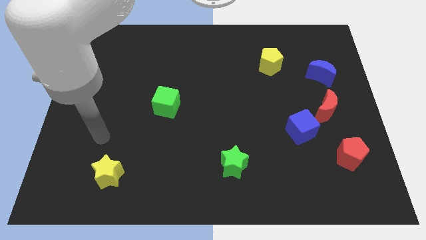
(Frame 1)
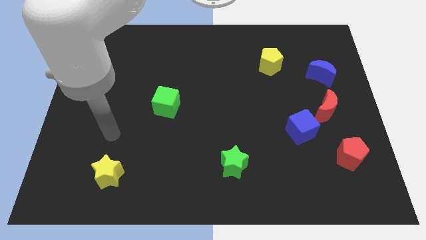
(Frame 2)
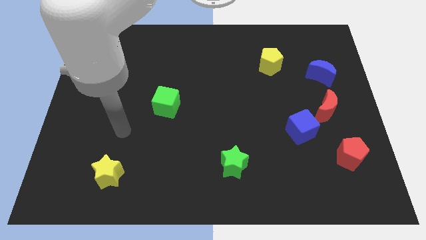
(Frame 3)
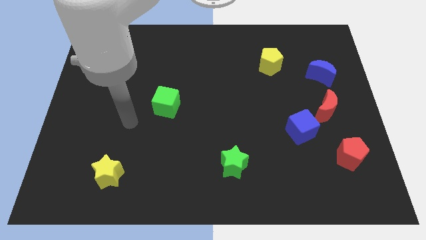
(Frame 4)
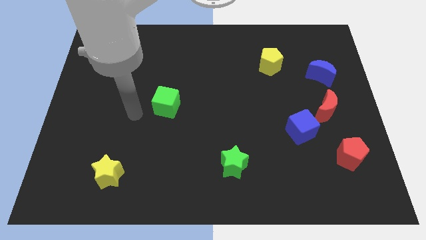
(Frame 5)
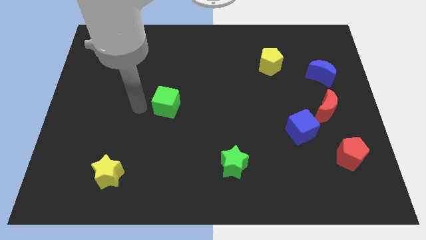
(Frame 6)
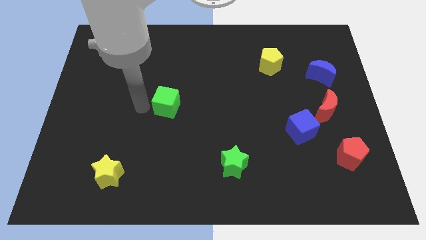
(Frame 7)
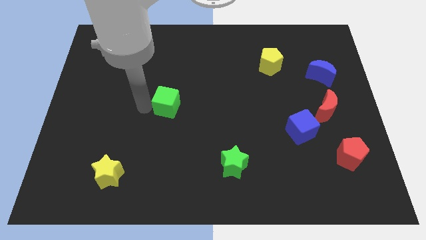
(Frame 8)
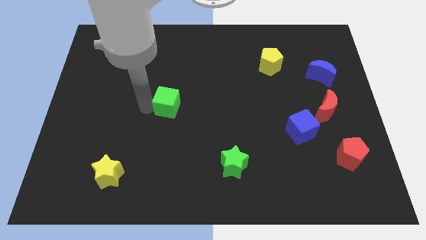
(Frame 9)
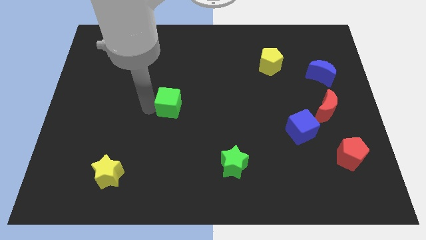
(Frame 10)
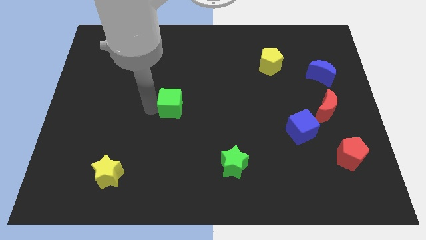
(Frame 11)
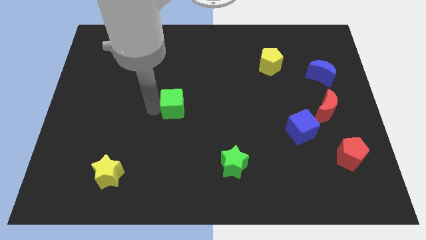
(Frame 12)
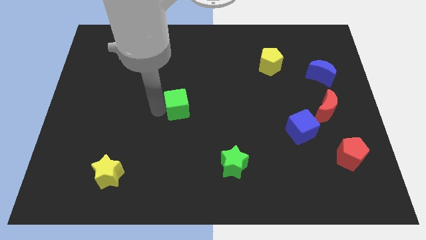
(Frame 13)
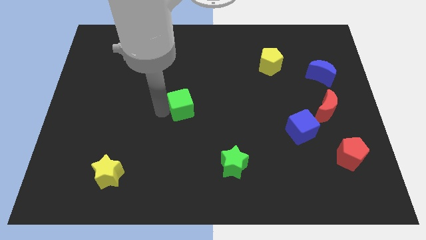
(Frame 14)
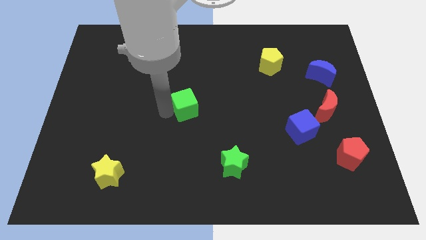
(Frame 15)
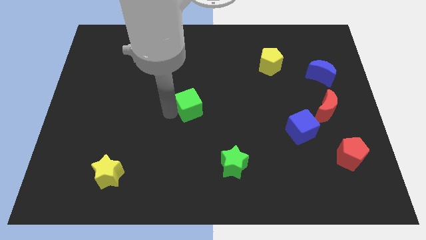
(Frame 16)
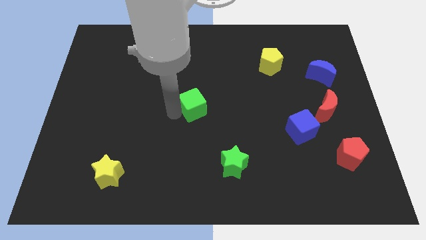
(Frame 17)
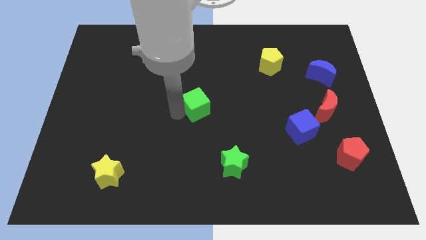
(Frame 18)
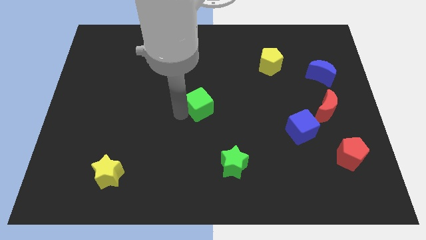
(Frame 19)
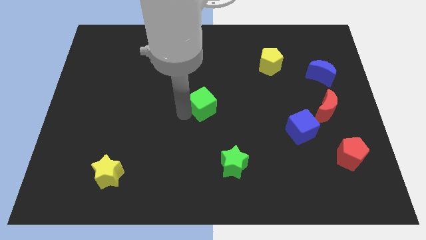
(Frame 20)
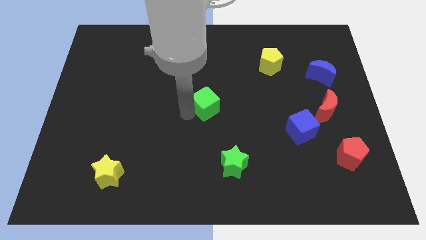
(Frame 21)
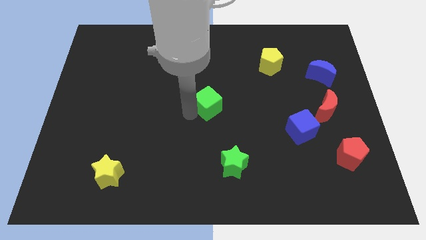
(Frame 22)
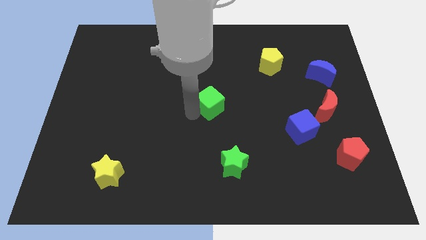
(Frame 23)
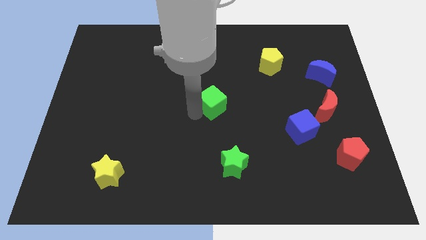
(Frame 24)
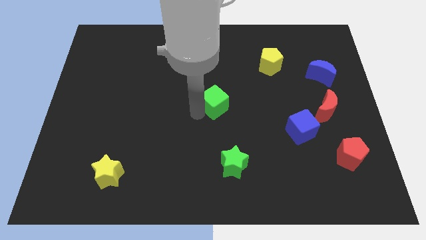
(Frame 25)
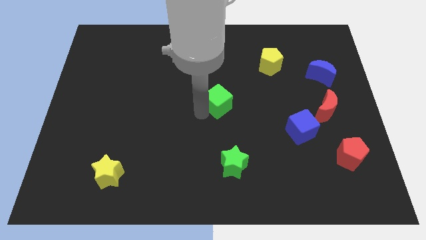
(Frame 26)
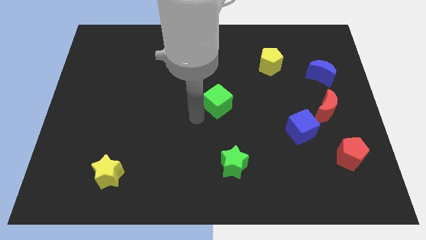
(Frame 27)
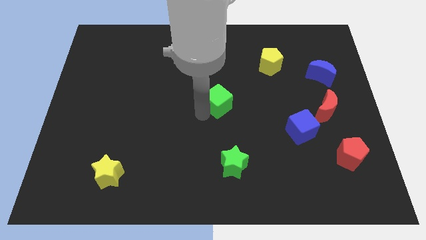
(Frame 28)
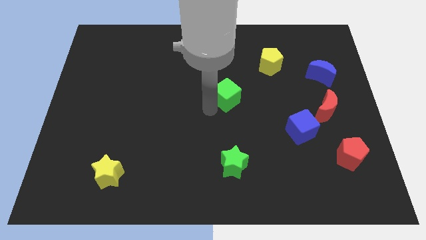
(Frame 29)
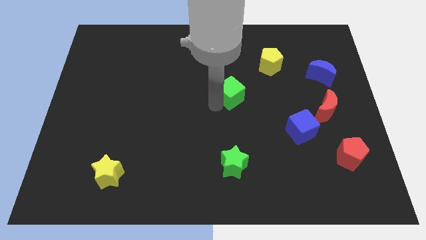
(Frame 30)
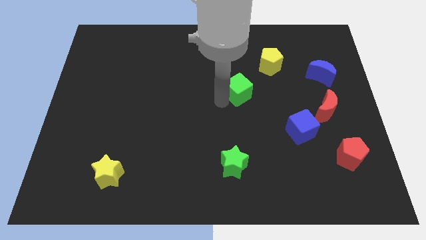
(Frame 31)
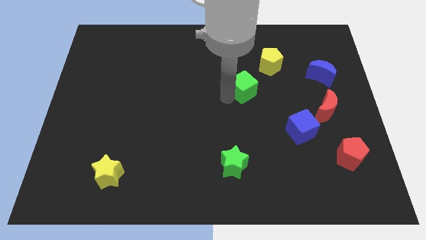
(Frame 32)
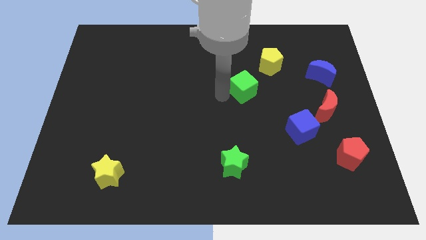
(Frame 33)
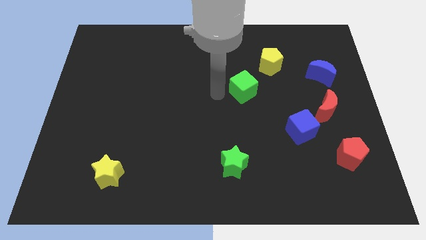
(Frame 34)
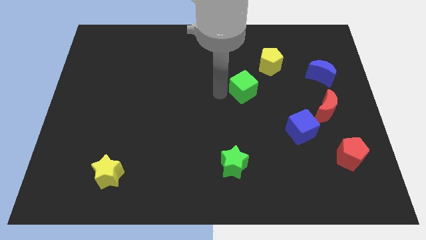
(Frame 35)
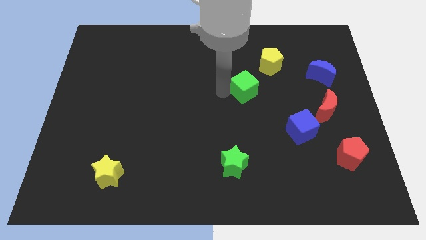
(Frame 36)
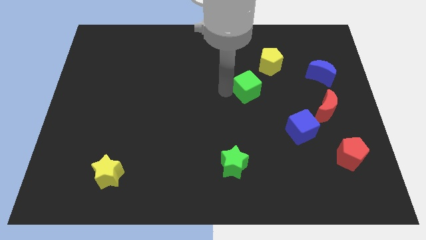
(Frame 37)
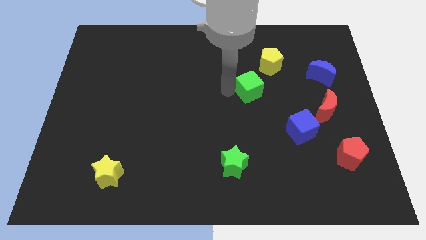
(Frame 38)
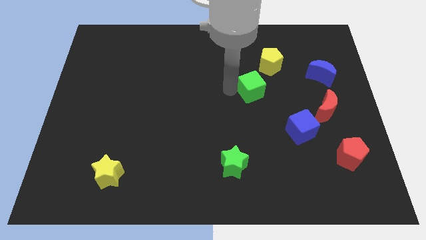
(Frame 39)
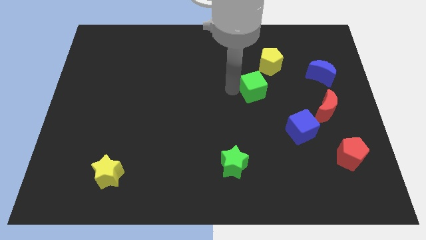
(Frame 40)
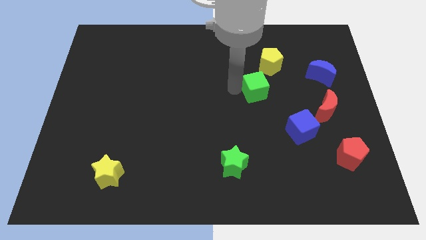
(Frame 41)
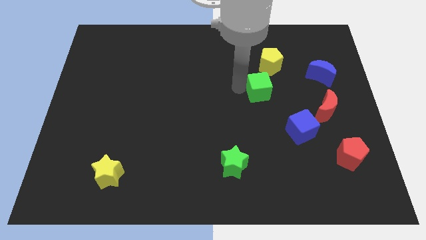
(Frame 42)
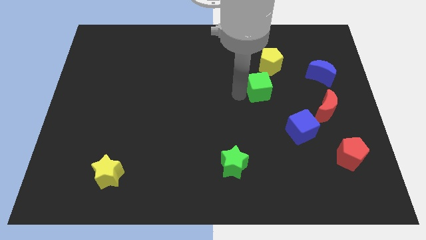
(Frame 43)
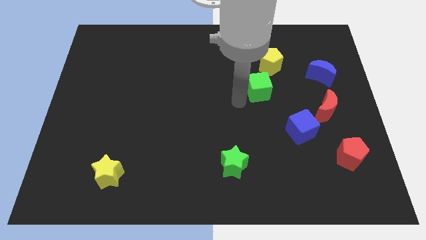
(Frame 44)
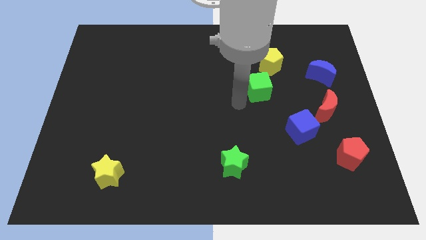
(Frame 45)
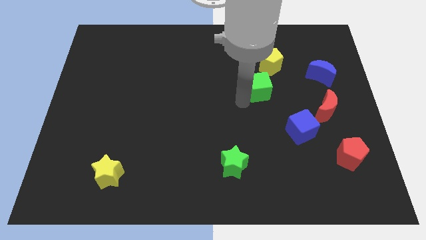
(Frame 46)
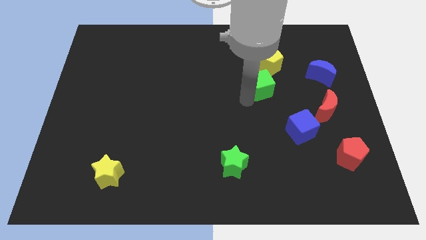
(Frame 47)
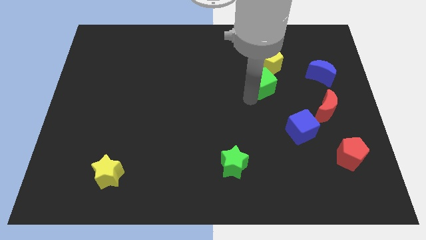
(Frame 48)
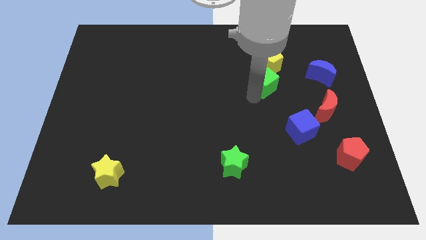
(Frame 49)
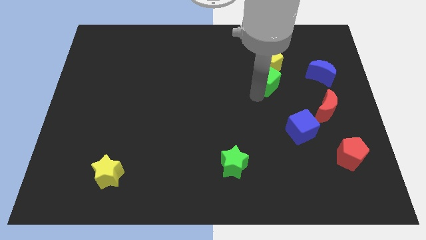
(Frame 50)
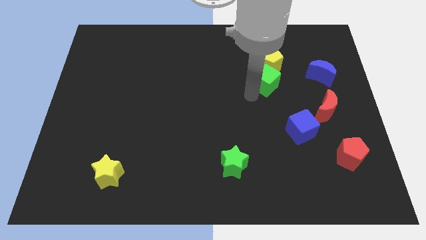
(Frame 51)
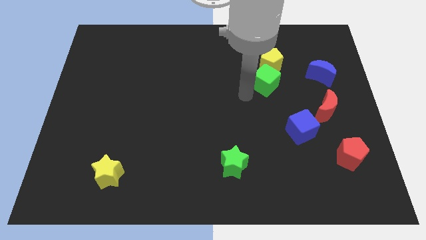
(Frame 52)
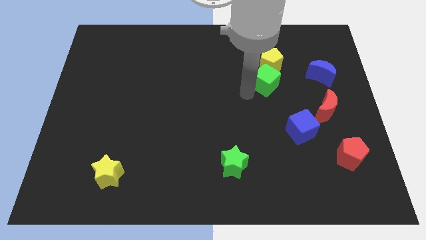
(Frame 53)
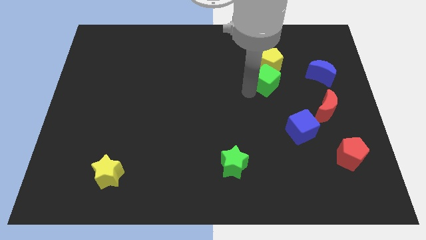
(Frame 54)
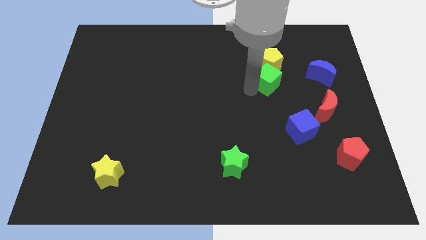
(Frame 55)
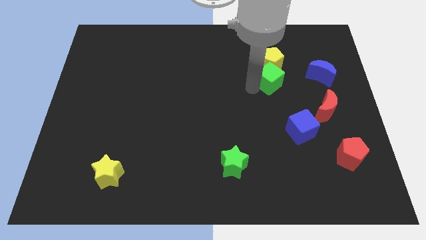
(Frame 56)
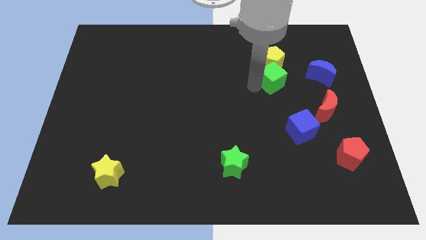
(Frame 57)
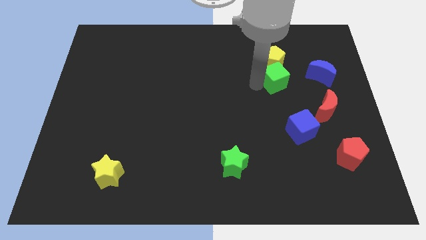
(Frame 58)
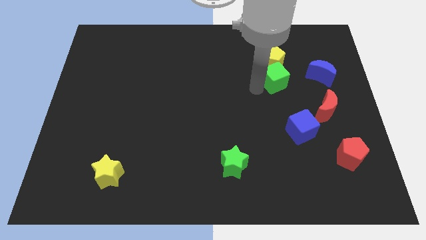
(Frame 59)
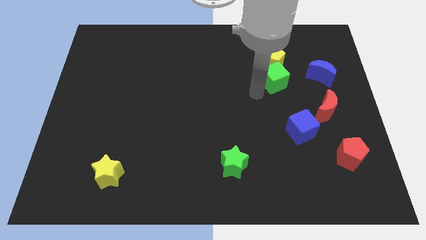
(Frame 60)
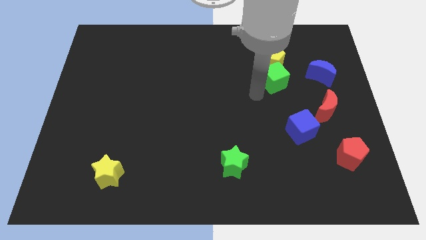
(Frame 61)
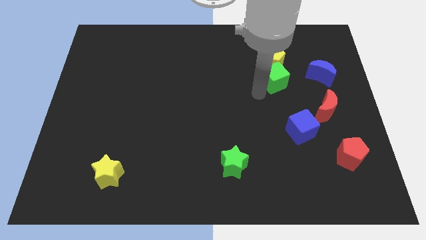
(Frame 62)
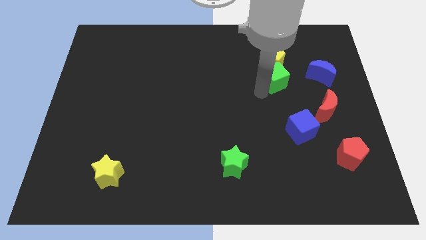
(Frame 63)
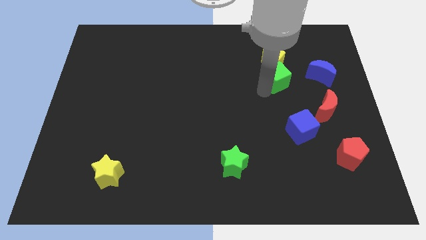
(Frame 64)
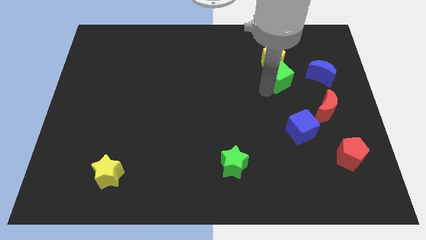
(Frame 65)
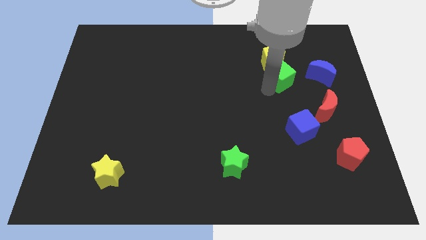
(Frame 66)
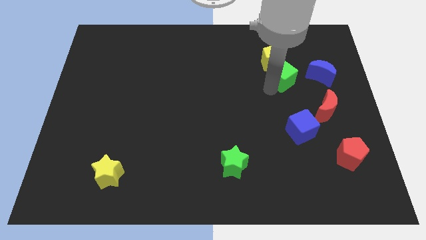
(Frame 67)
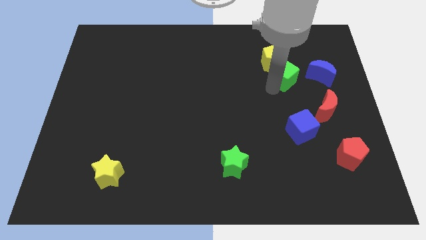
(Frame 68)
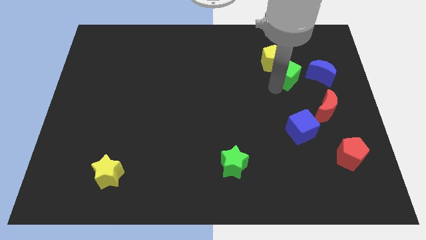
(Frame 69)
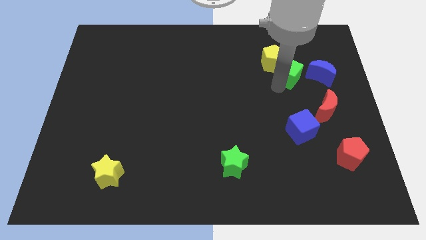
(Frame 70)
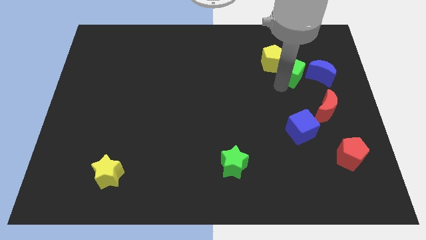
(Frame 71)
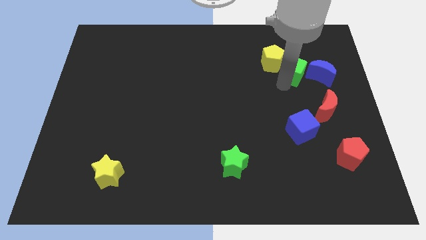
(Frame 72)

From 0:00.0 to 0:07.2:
slide the green cube to the top left side of the blue moon
